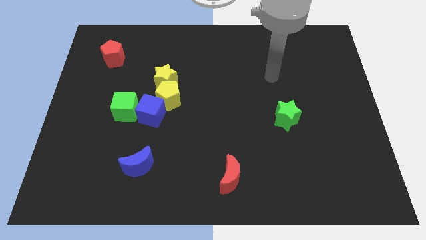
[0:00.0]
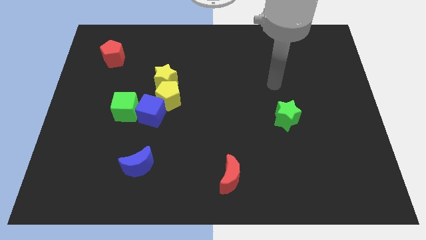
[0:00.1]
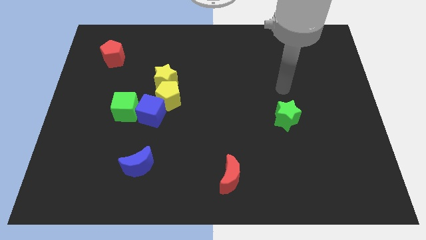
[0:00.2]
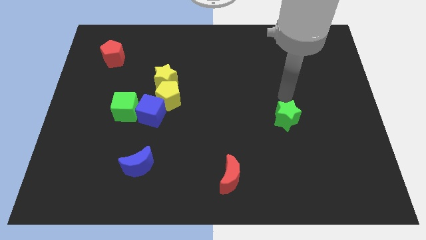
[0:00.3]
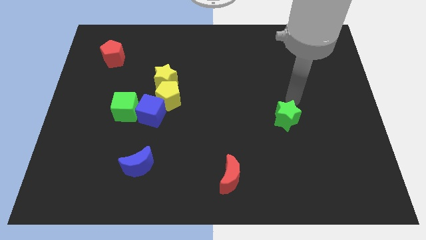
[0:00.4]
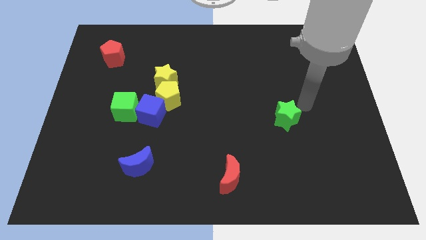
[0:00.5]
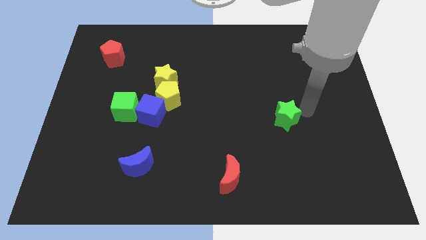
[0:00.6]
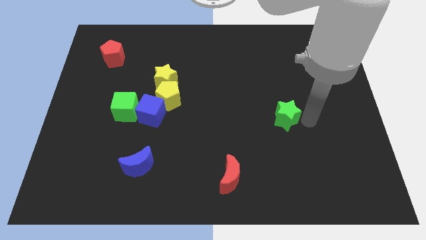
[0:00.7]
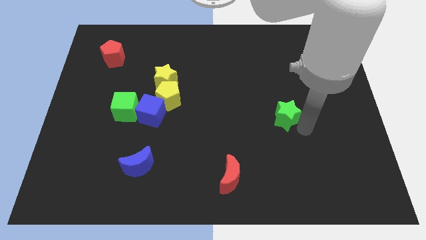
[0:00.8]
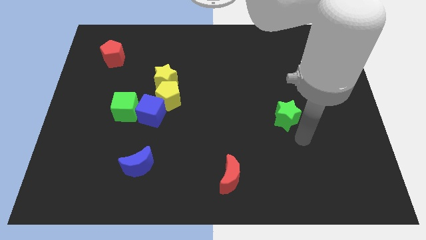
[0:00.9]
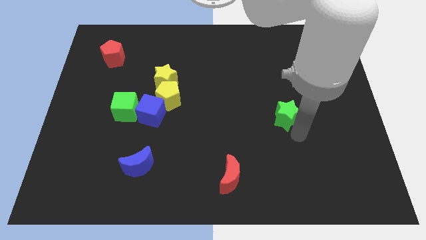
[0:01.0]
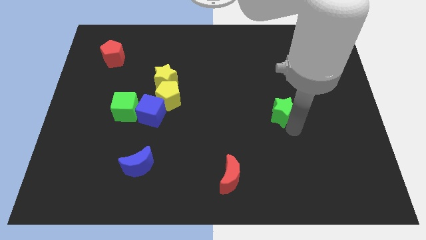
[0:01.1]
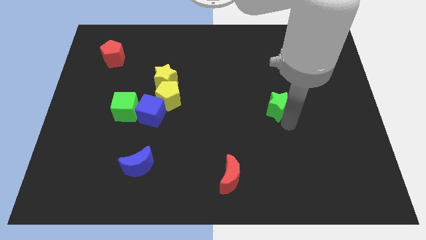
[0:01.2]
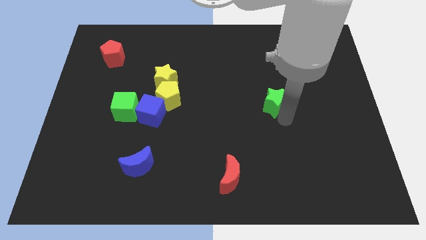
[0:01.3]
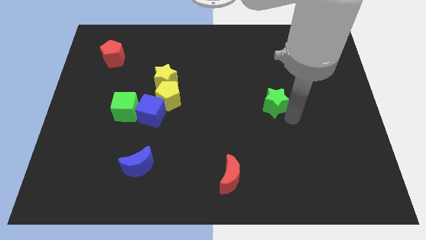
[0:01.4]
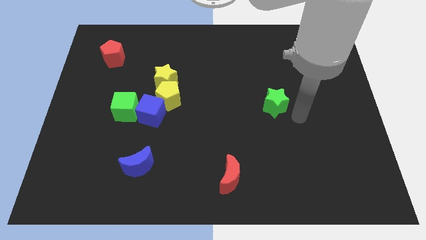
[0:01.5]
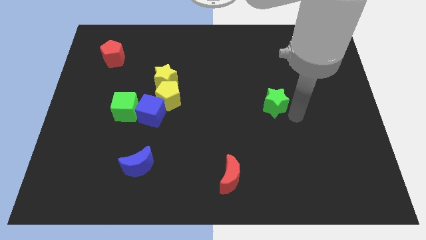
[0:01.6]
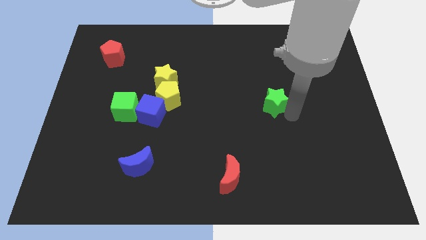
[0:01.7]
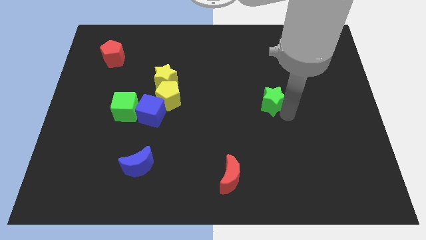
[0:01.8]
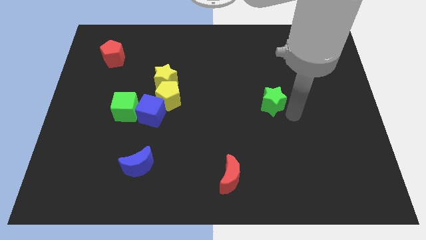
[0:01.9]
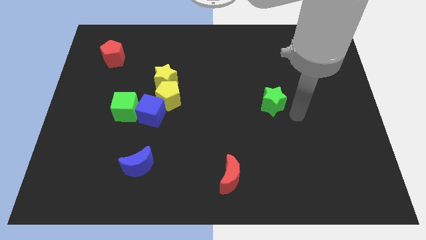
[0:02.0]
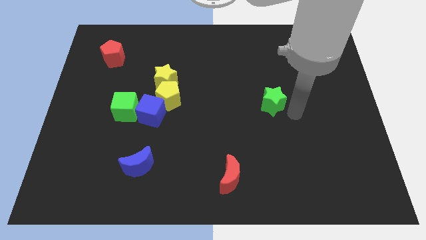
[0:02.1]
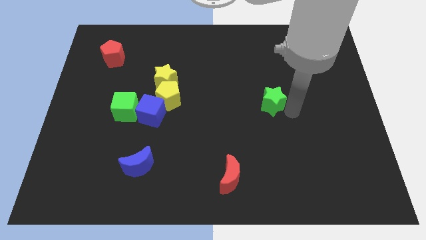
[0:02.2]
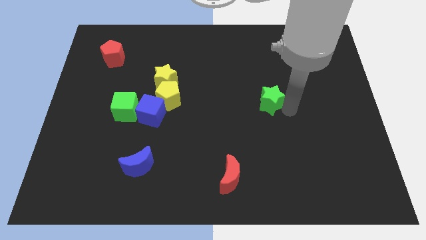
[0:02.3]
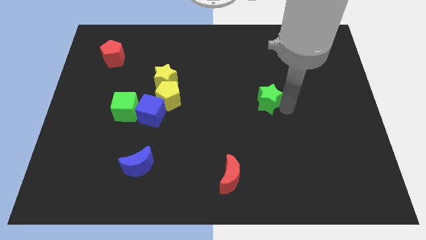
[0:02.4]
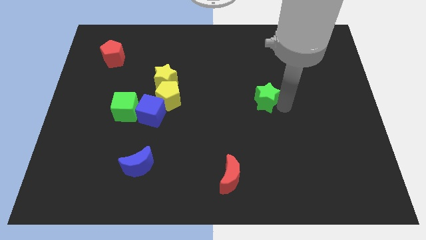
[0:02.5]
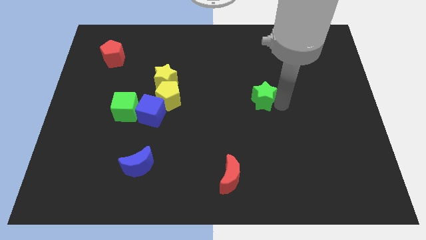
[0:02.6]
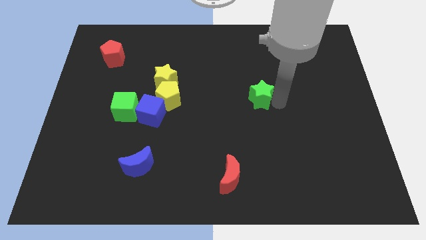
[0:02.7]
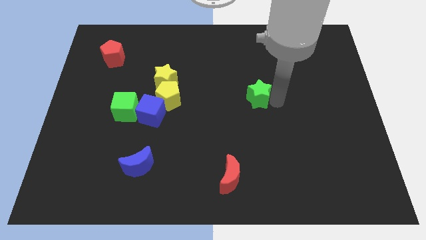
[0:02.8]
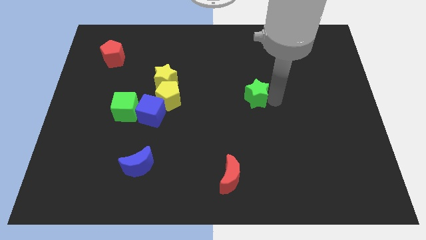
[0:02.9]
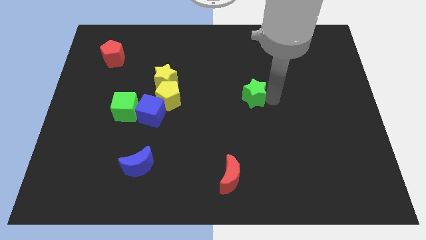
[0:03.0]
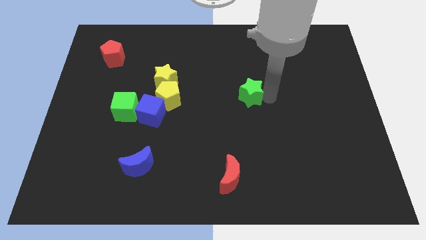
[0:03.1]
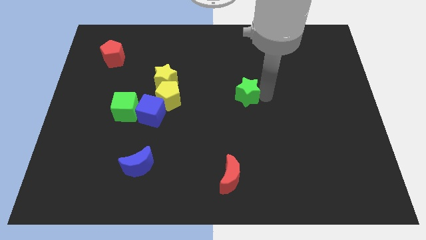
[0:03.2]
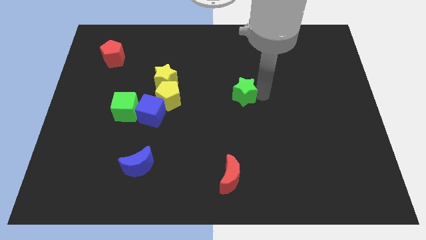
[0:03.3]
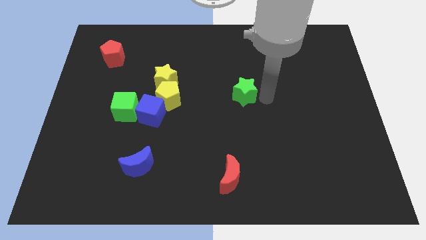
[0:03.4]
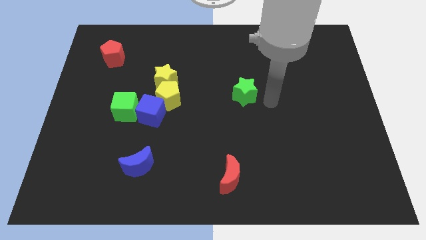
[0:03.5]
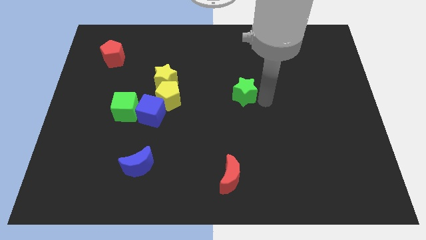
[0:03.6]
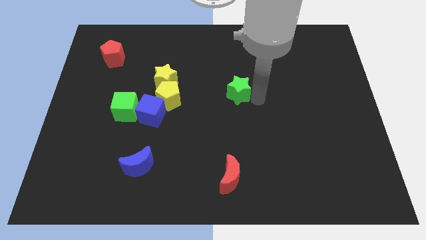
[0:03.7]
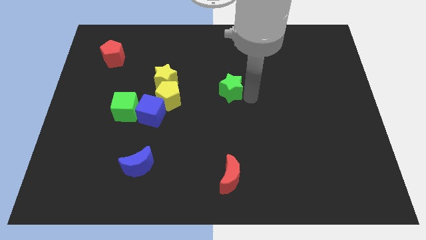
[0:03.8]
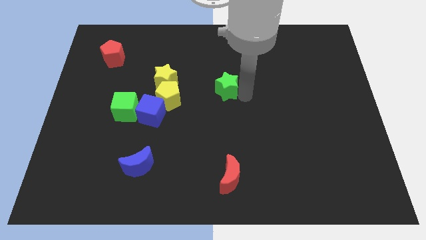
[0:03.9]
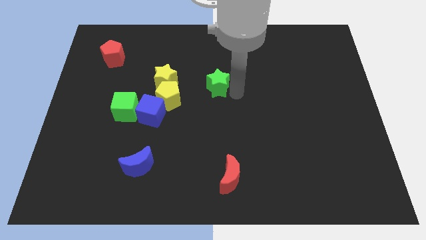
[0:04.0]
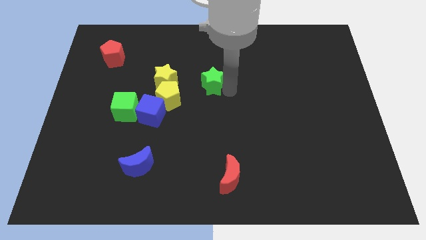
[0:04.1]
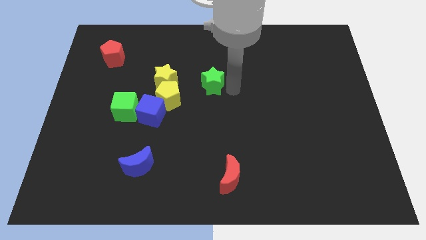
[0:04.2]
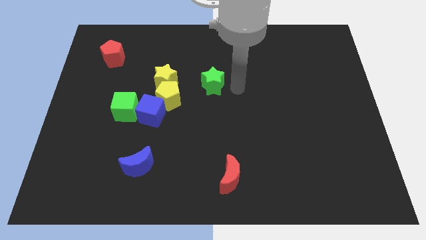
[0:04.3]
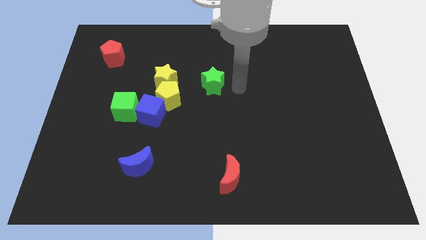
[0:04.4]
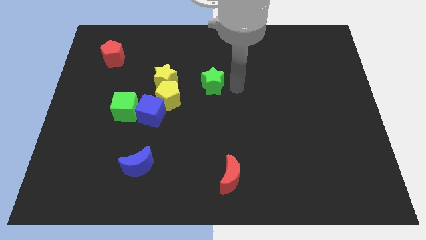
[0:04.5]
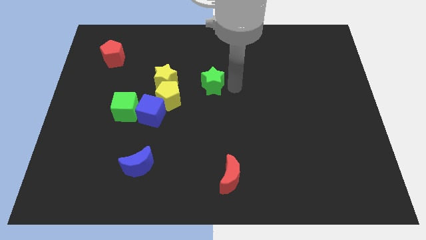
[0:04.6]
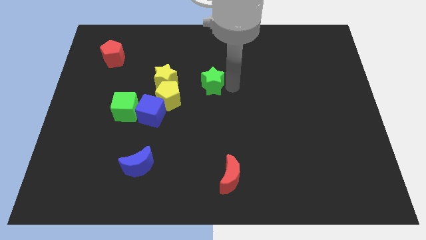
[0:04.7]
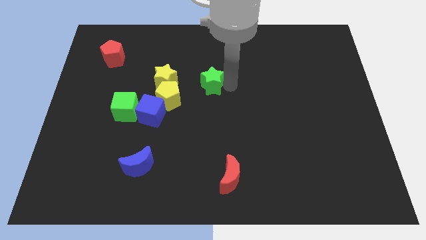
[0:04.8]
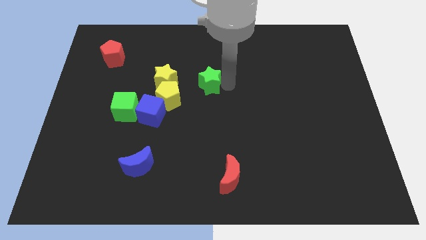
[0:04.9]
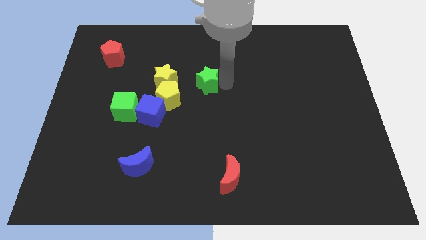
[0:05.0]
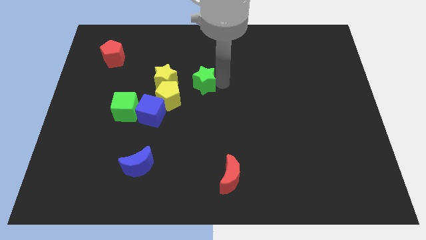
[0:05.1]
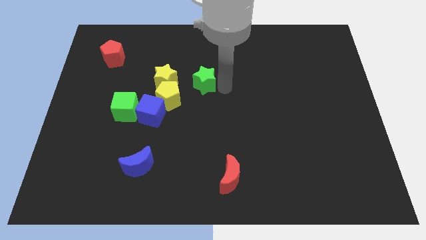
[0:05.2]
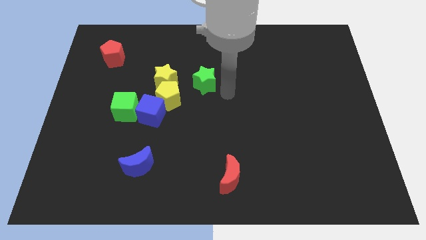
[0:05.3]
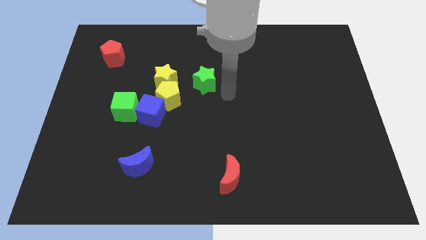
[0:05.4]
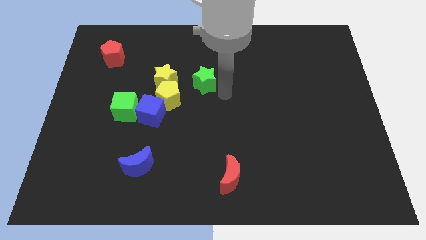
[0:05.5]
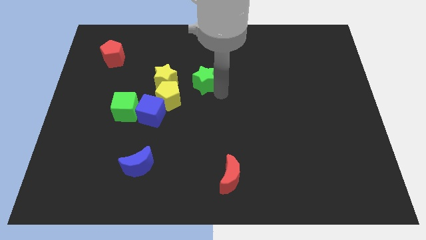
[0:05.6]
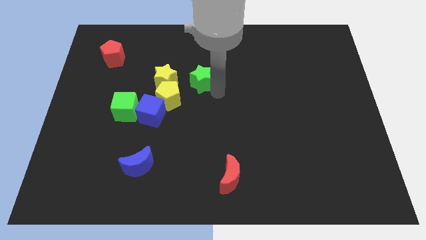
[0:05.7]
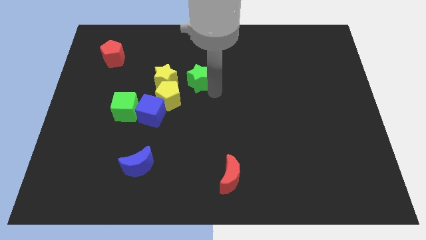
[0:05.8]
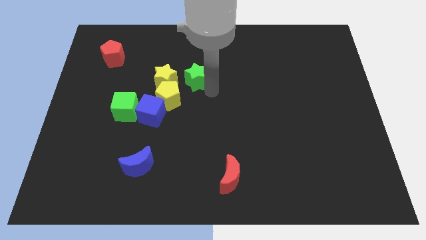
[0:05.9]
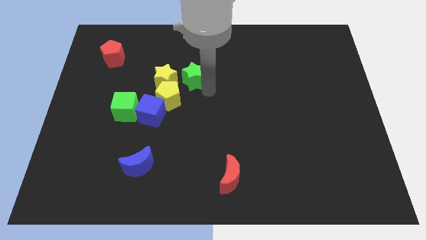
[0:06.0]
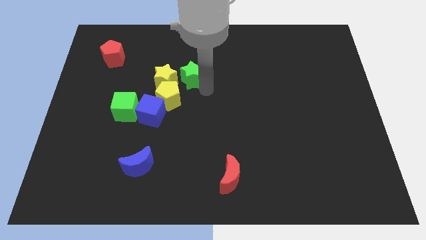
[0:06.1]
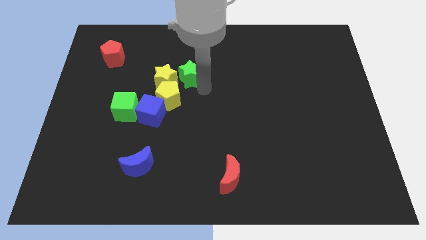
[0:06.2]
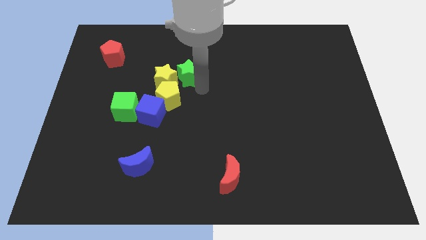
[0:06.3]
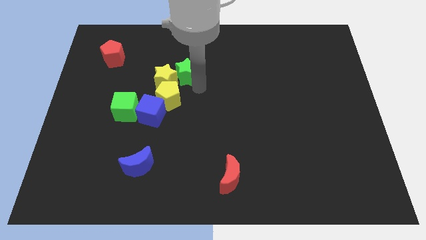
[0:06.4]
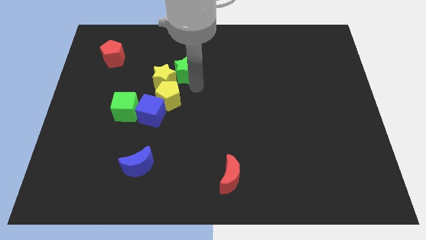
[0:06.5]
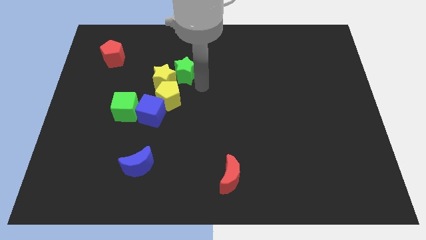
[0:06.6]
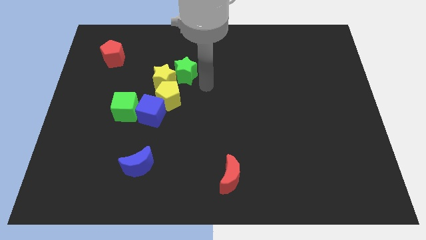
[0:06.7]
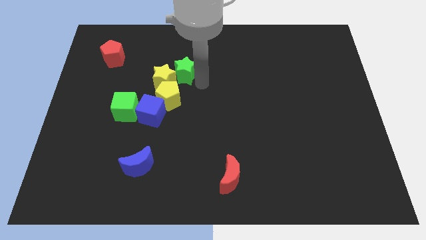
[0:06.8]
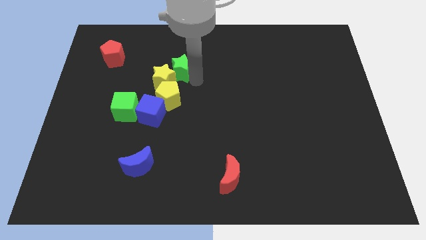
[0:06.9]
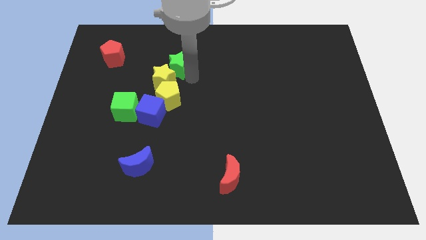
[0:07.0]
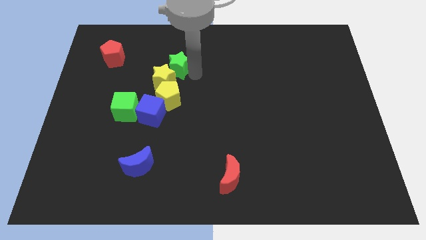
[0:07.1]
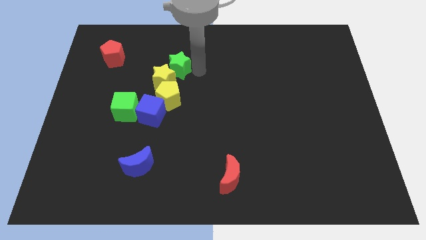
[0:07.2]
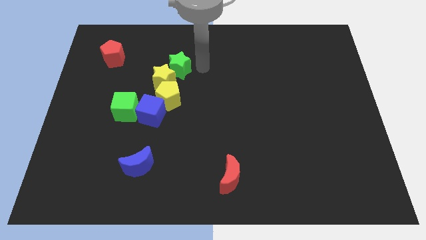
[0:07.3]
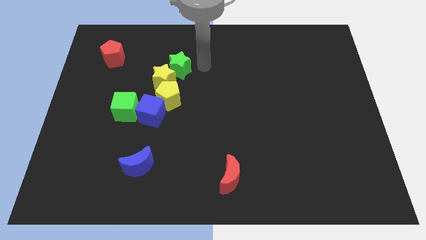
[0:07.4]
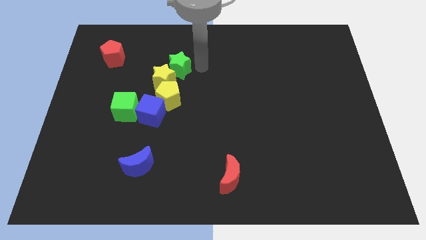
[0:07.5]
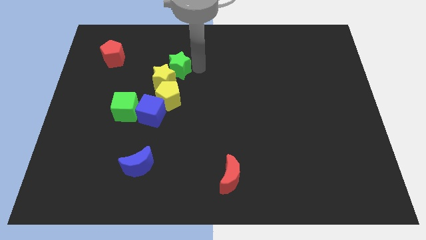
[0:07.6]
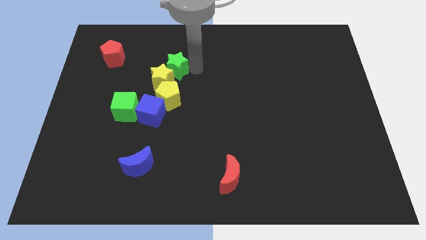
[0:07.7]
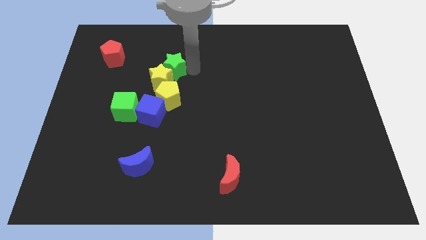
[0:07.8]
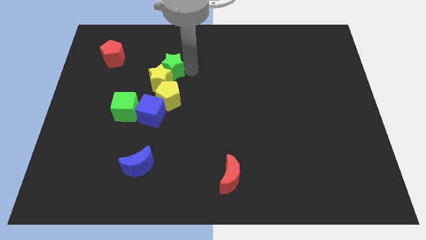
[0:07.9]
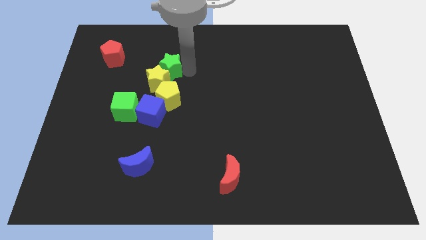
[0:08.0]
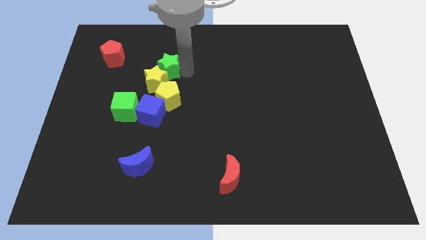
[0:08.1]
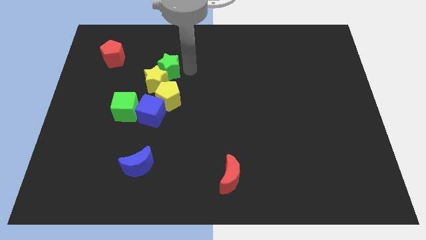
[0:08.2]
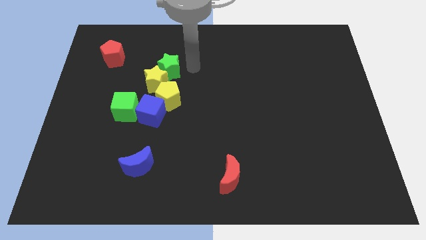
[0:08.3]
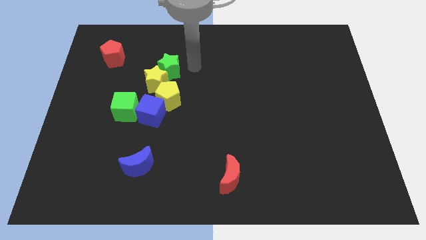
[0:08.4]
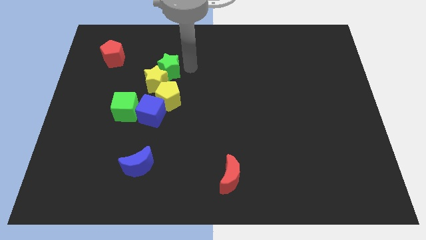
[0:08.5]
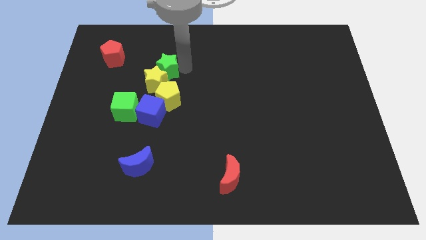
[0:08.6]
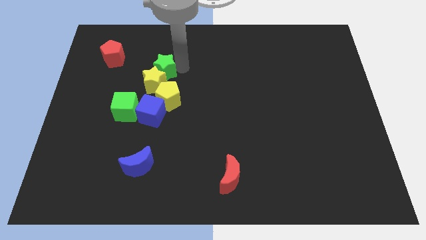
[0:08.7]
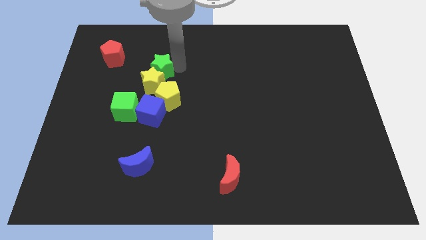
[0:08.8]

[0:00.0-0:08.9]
put the green star diagonally up and to the left of the yellow pentagon
